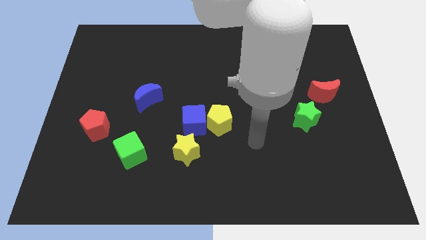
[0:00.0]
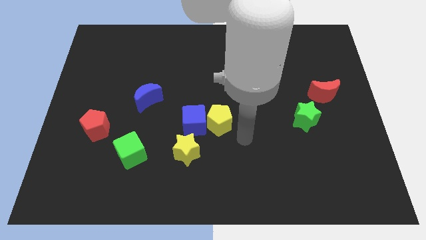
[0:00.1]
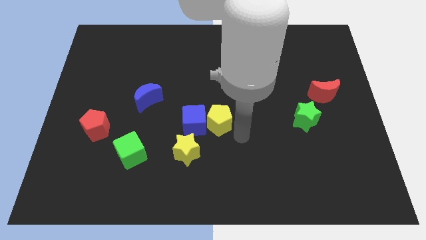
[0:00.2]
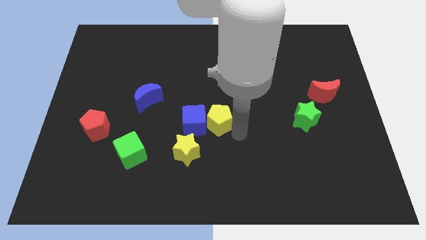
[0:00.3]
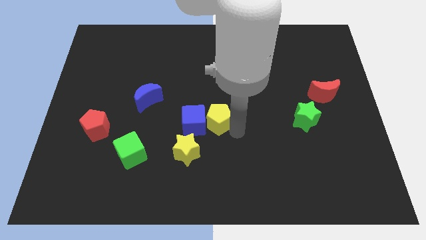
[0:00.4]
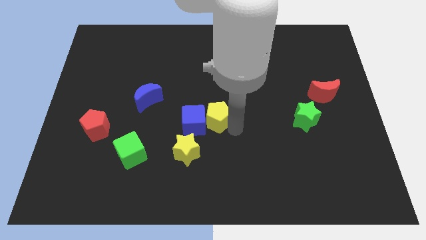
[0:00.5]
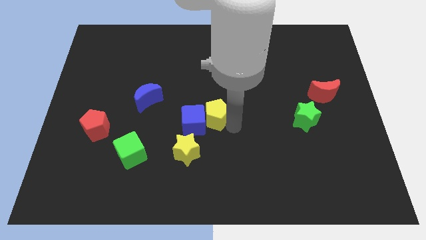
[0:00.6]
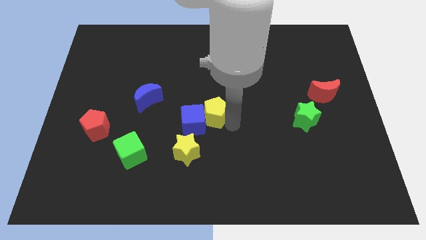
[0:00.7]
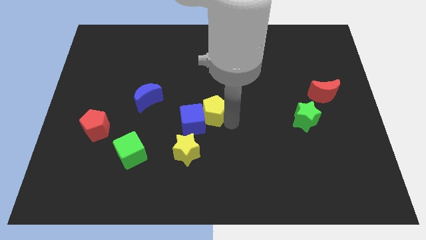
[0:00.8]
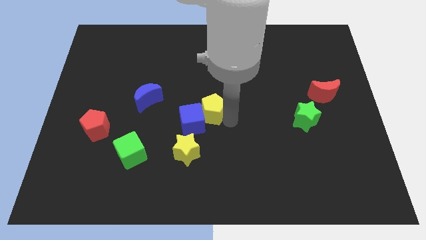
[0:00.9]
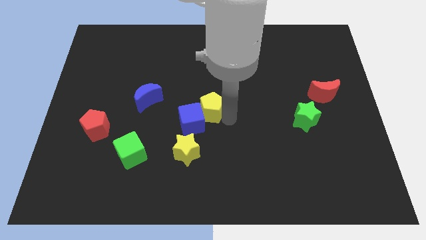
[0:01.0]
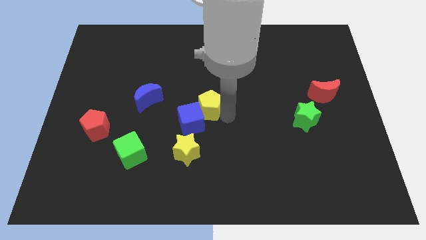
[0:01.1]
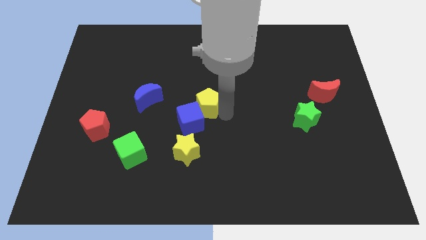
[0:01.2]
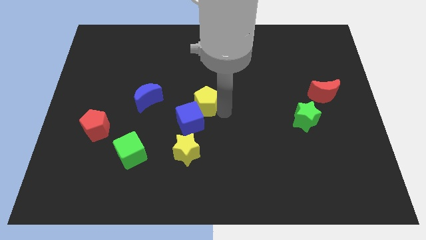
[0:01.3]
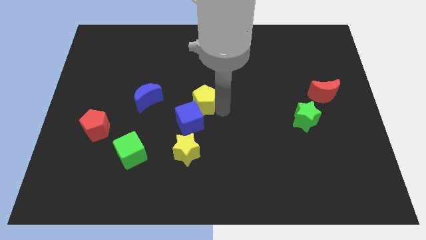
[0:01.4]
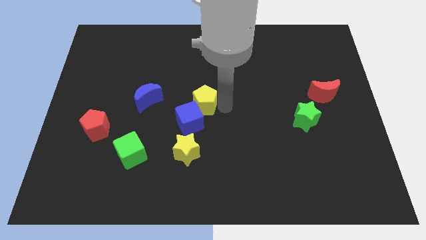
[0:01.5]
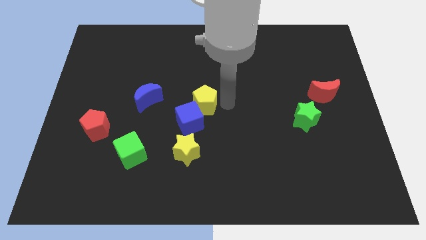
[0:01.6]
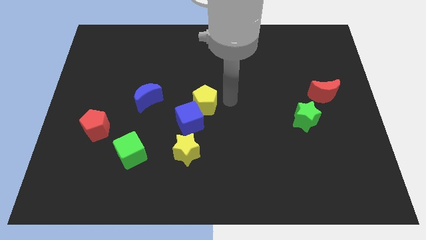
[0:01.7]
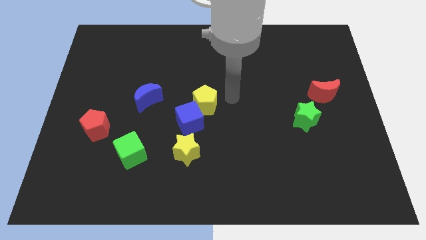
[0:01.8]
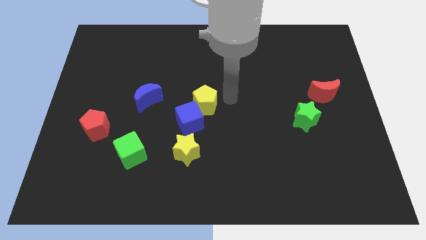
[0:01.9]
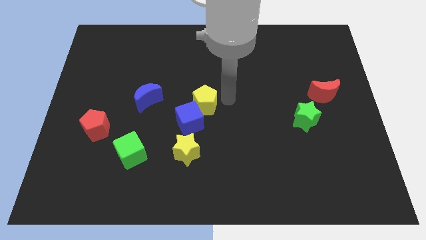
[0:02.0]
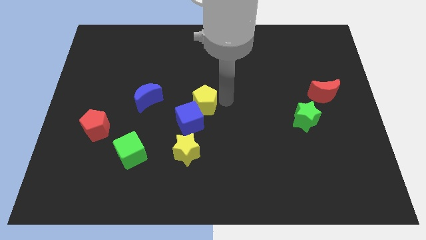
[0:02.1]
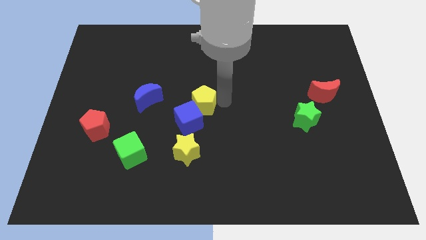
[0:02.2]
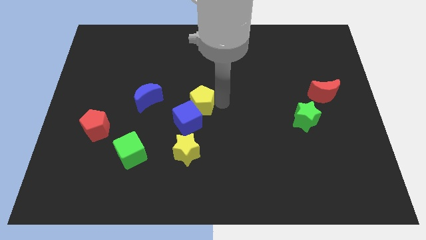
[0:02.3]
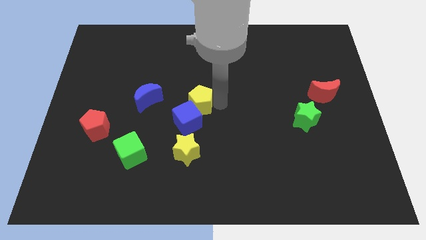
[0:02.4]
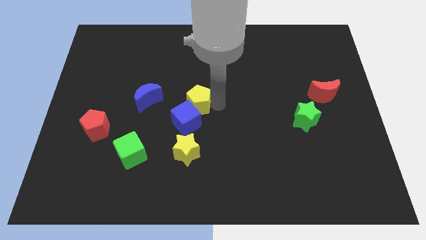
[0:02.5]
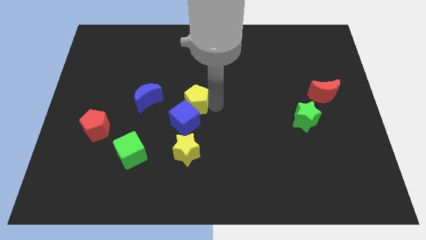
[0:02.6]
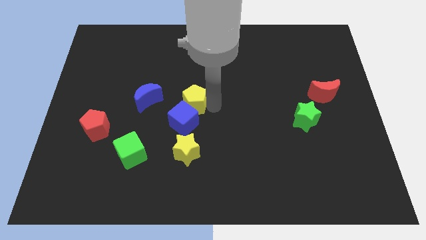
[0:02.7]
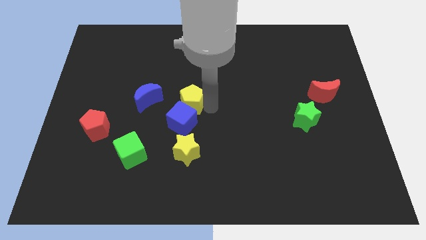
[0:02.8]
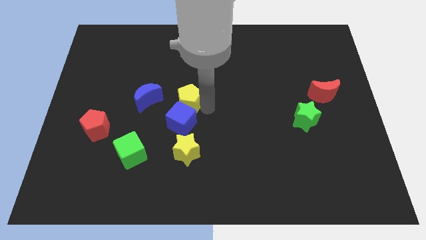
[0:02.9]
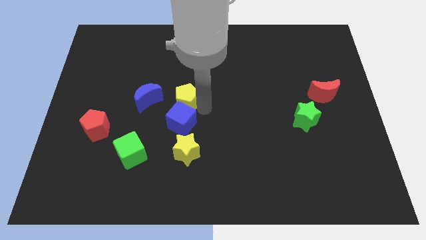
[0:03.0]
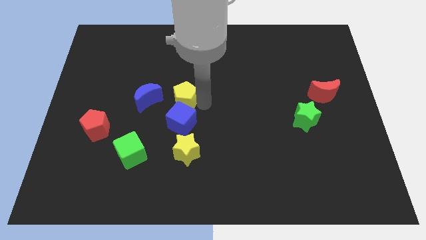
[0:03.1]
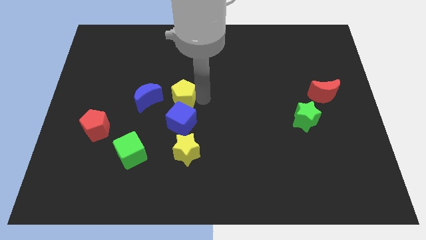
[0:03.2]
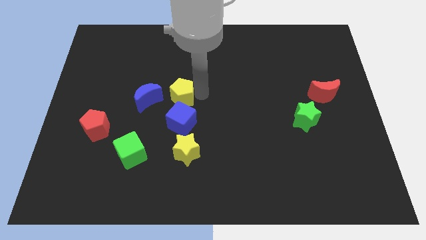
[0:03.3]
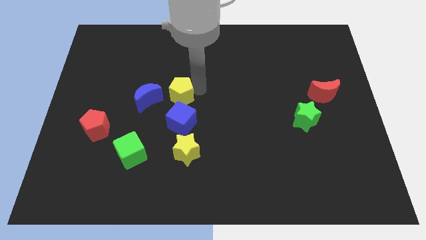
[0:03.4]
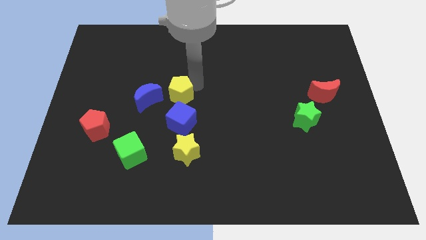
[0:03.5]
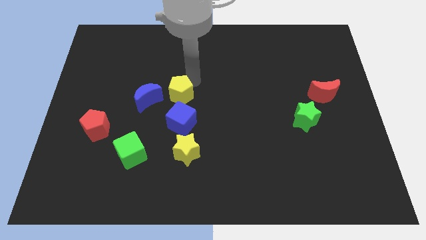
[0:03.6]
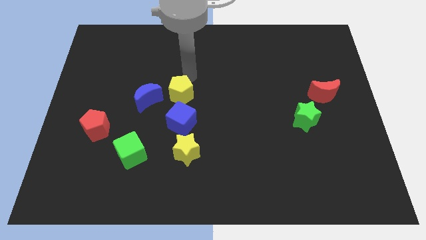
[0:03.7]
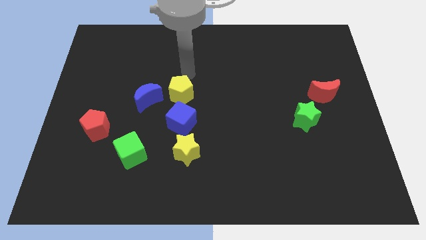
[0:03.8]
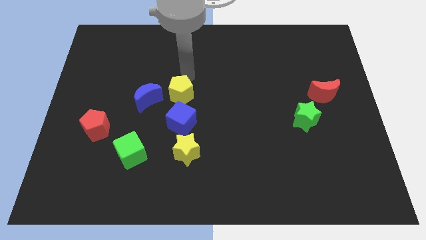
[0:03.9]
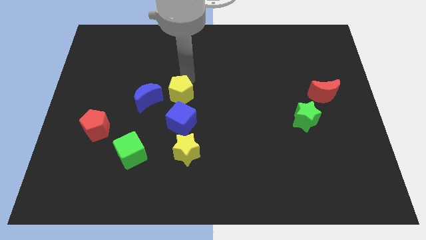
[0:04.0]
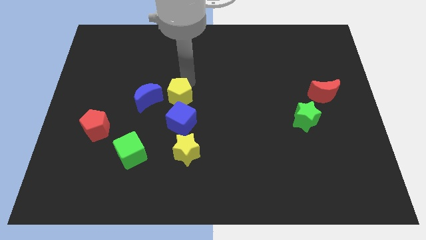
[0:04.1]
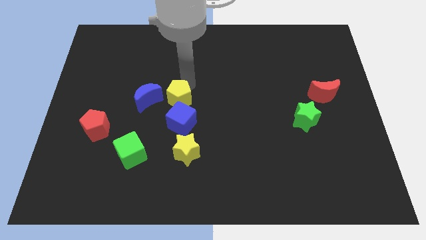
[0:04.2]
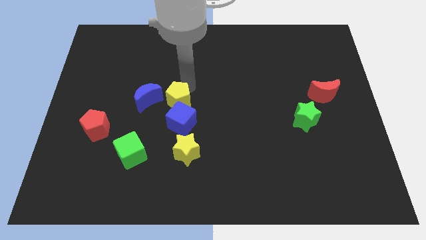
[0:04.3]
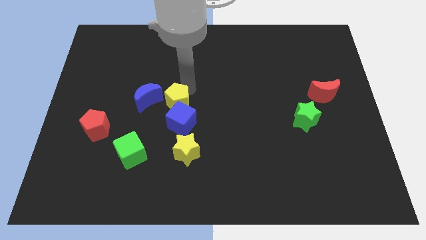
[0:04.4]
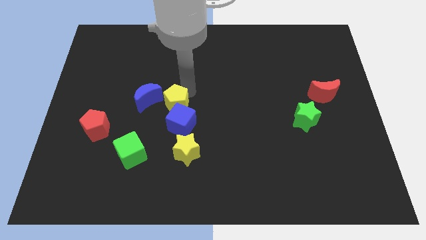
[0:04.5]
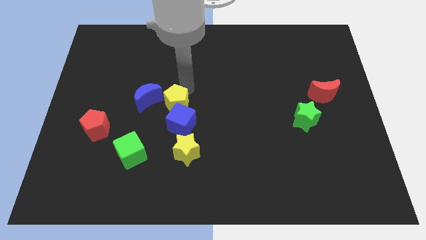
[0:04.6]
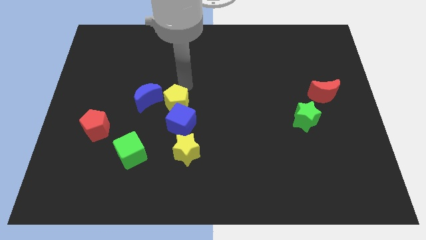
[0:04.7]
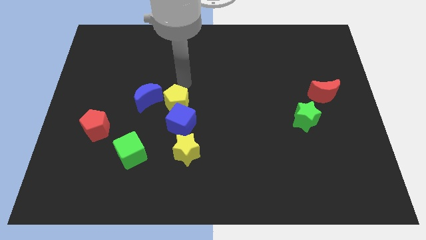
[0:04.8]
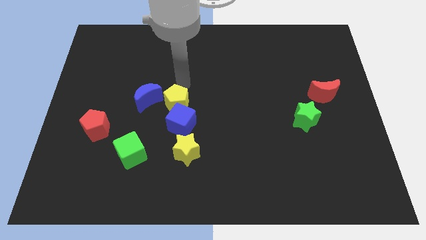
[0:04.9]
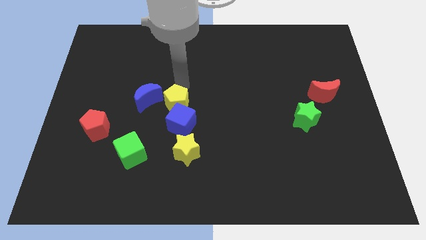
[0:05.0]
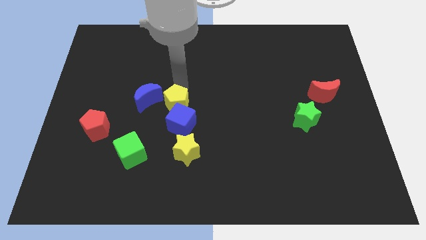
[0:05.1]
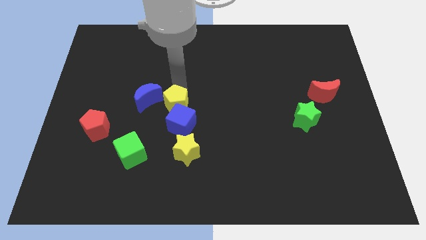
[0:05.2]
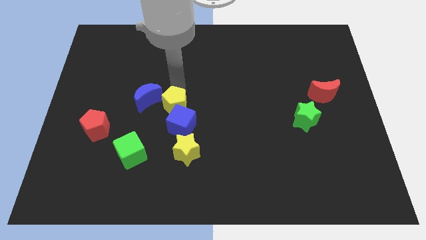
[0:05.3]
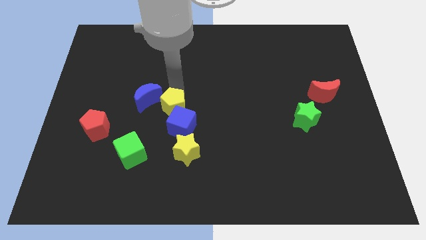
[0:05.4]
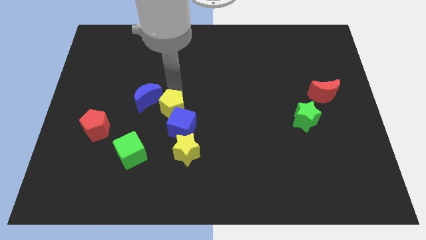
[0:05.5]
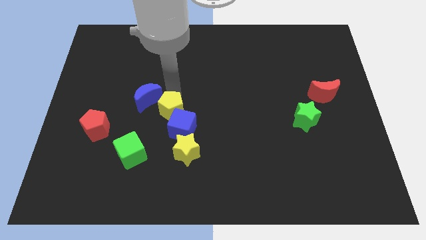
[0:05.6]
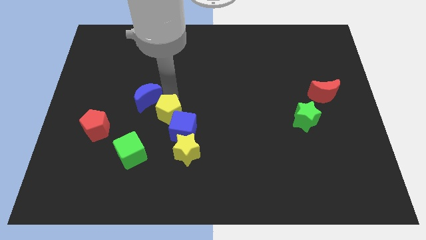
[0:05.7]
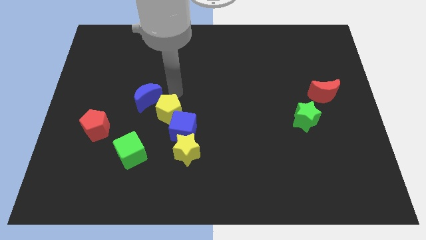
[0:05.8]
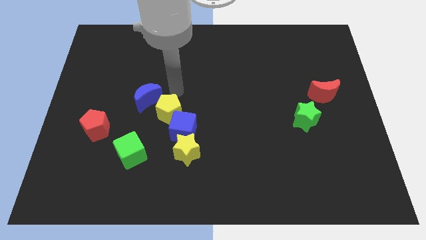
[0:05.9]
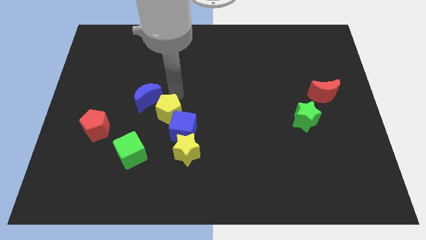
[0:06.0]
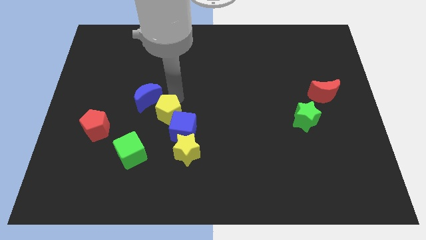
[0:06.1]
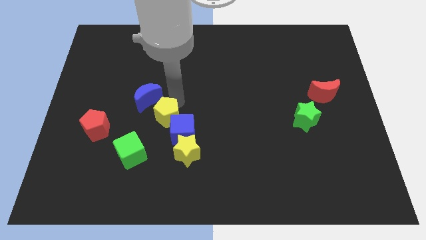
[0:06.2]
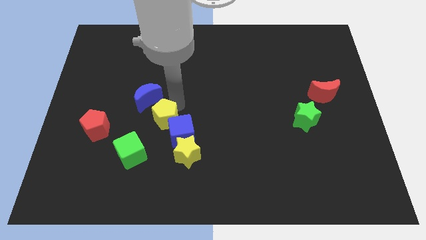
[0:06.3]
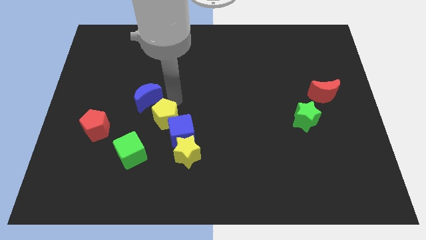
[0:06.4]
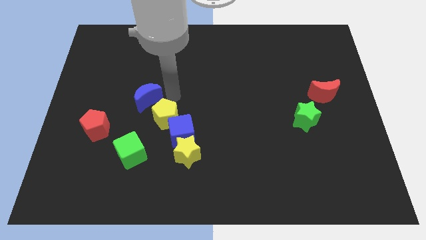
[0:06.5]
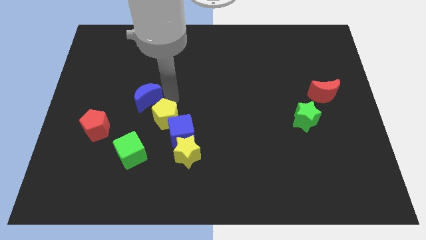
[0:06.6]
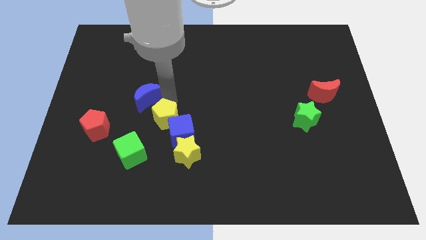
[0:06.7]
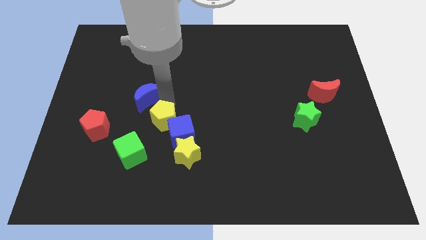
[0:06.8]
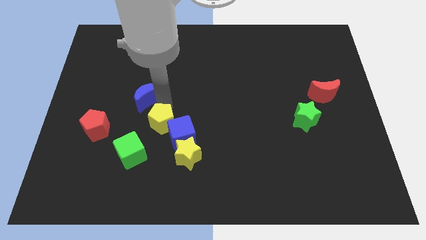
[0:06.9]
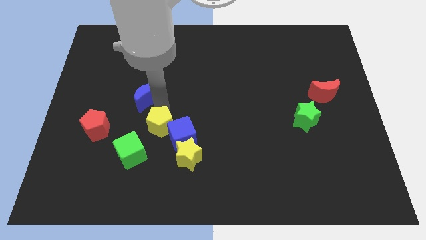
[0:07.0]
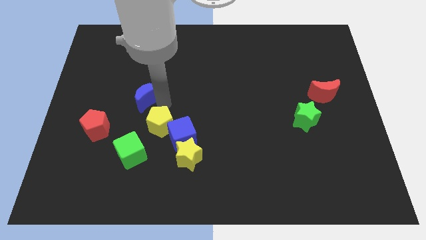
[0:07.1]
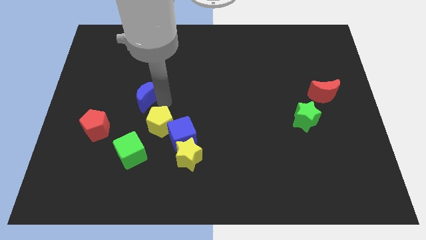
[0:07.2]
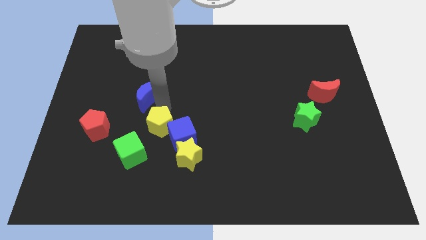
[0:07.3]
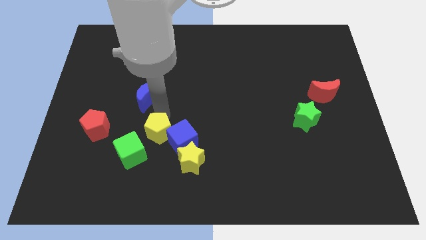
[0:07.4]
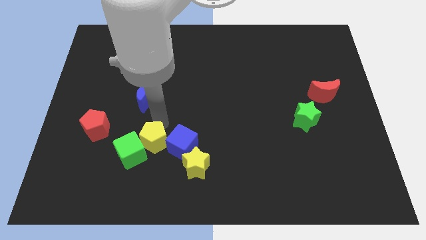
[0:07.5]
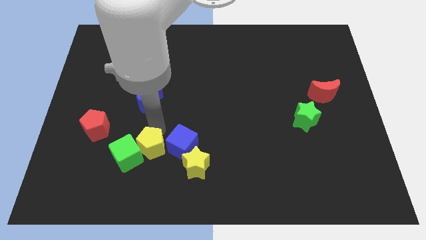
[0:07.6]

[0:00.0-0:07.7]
put the yellow pentagon to the bottom left side of the blue cube
